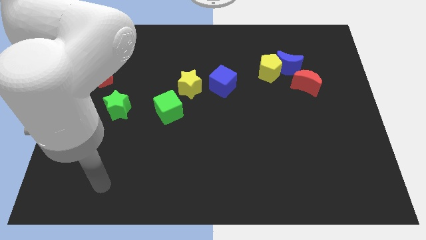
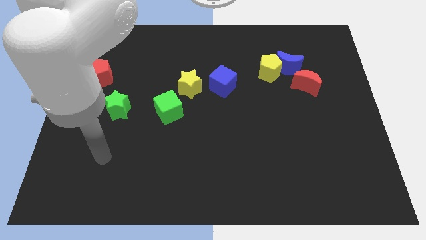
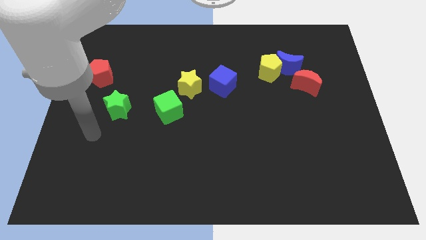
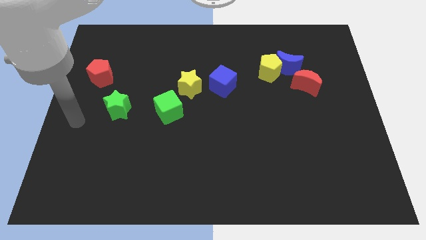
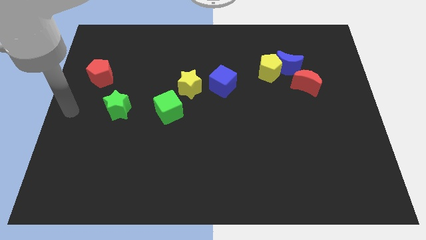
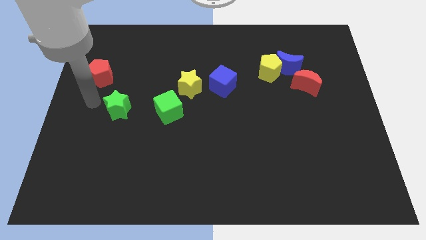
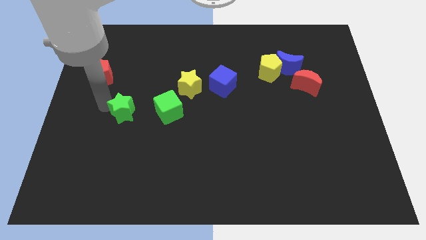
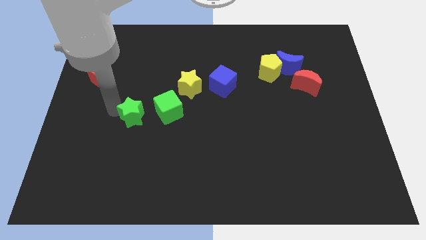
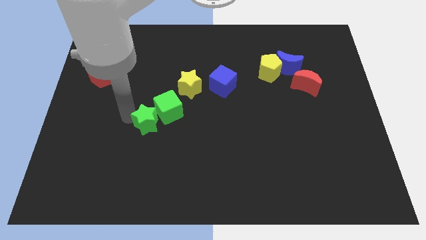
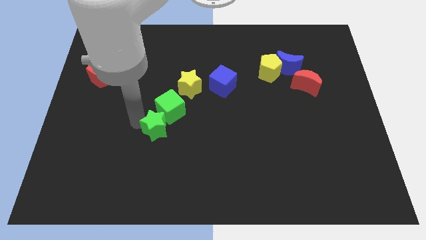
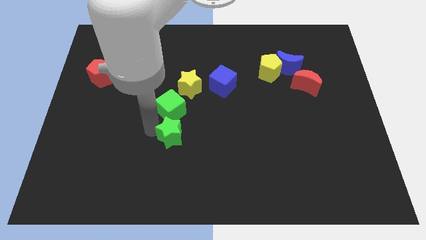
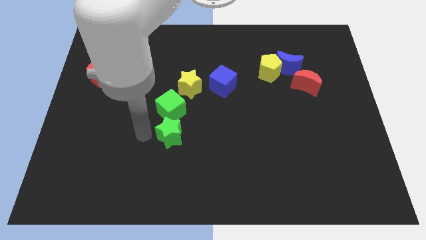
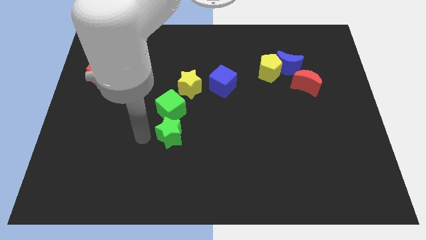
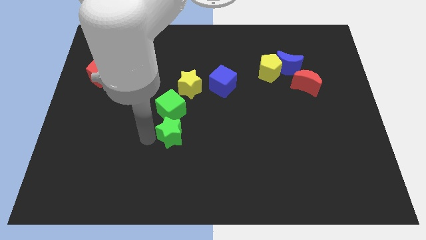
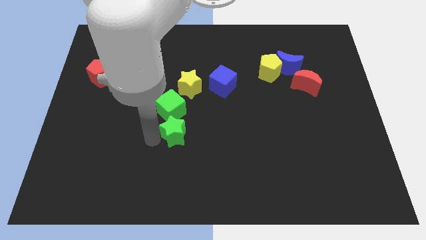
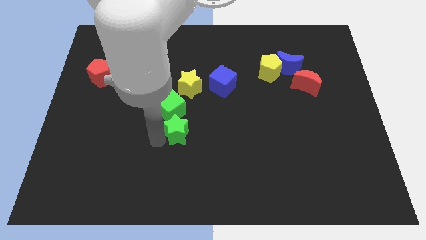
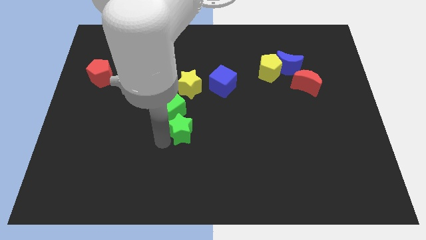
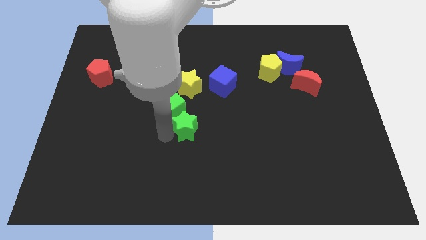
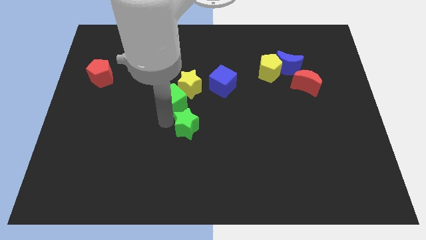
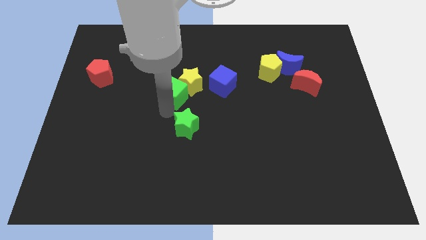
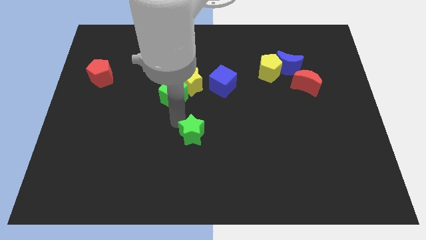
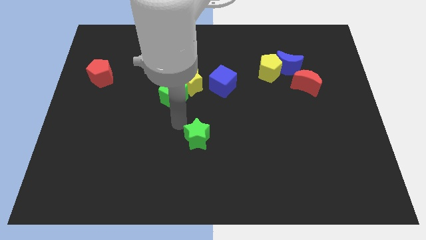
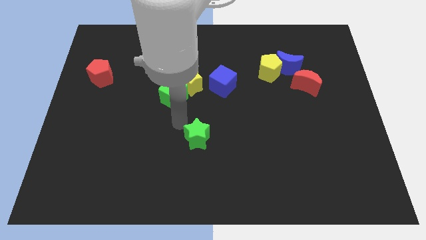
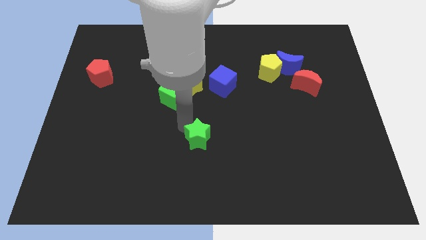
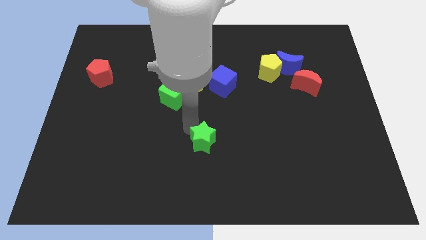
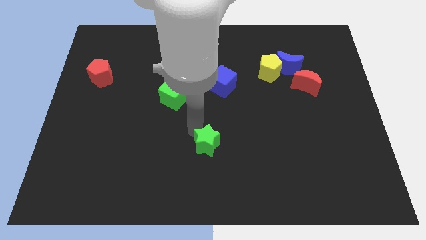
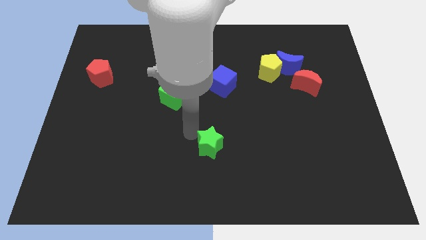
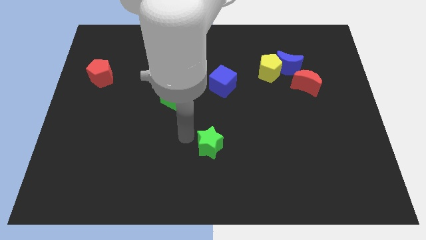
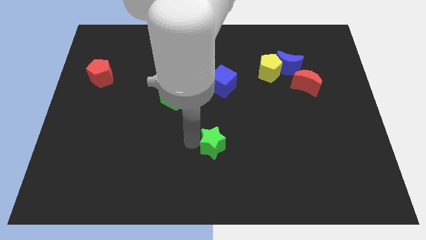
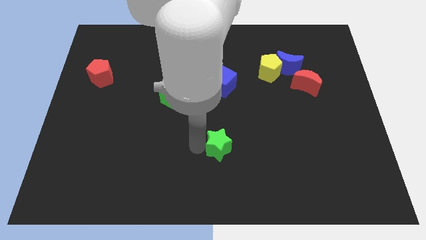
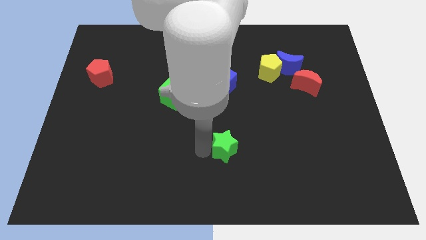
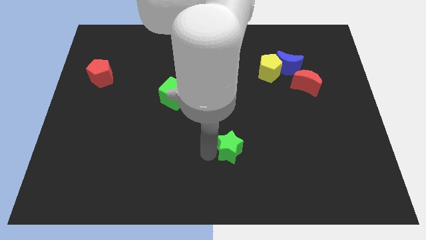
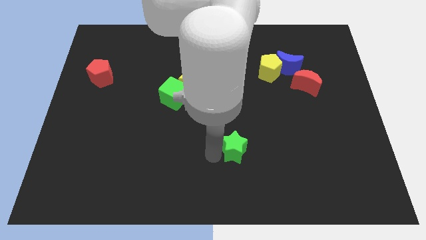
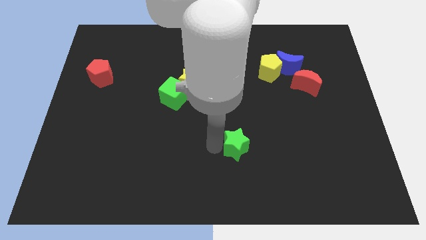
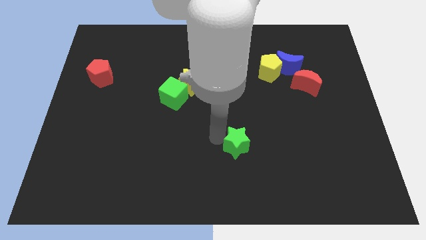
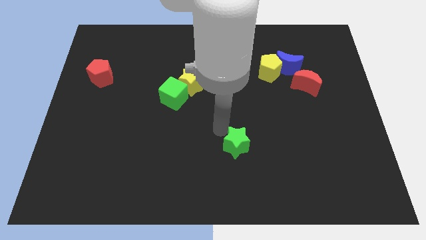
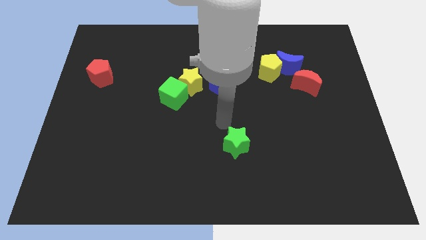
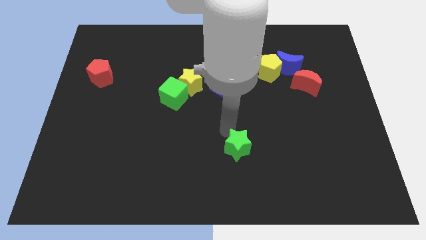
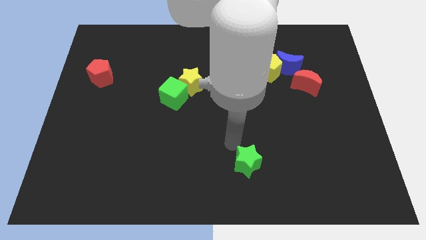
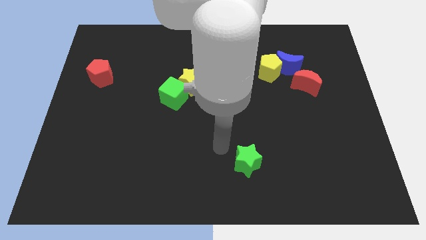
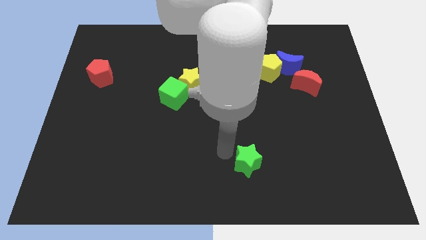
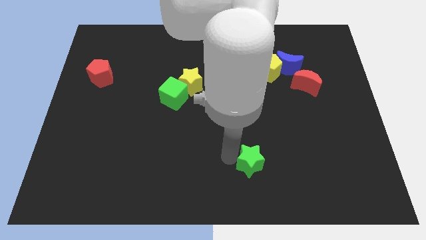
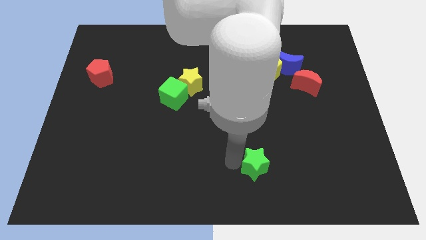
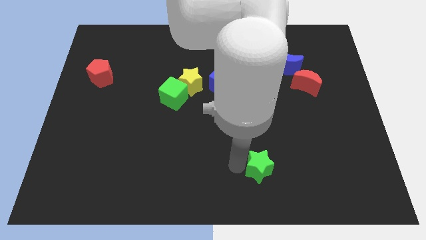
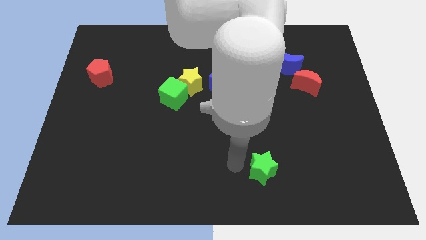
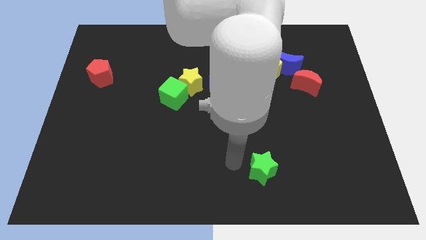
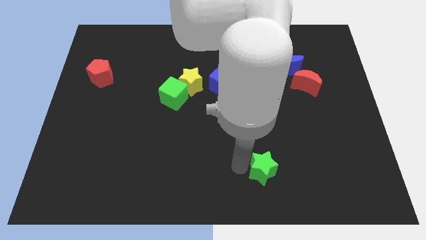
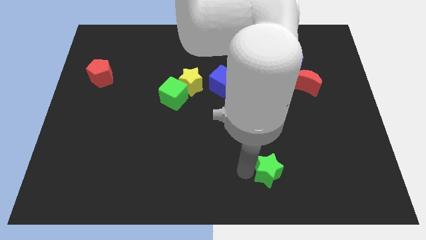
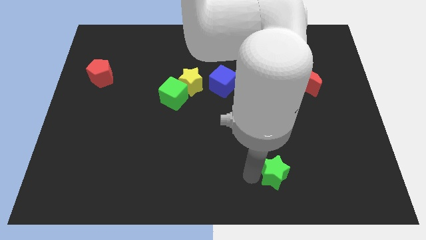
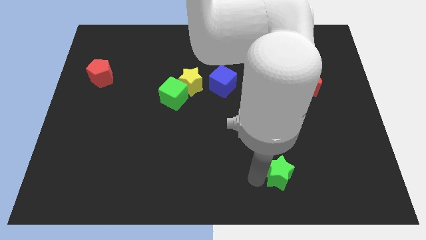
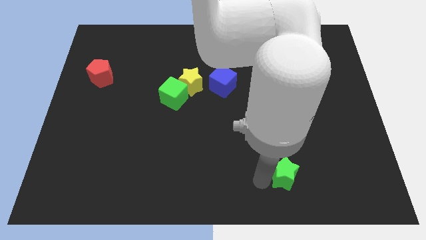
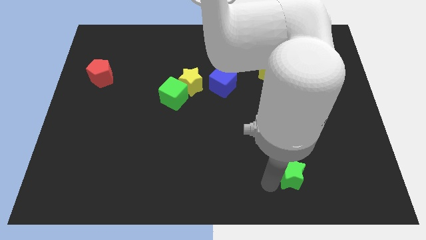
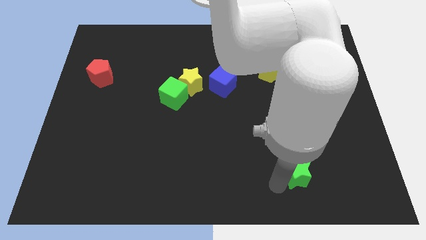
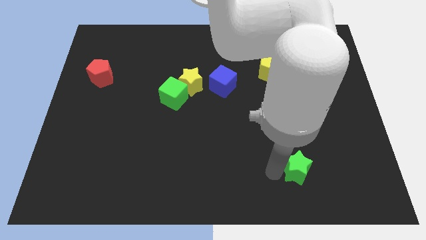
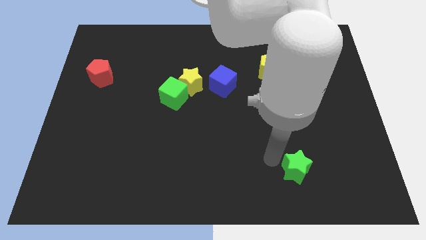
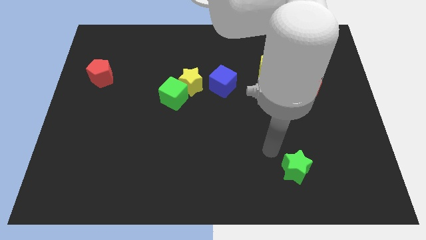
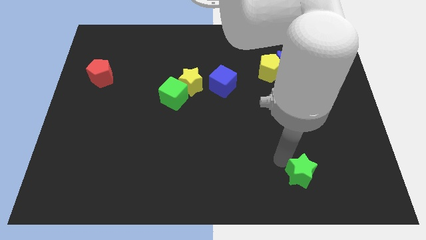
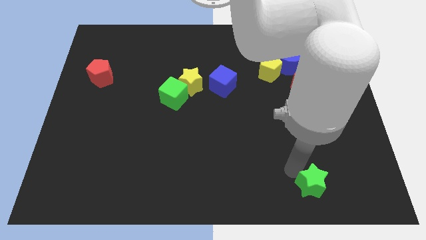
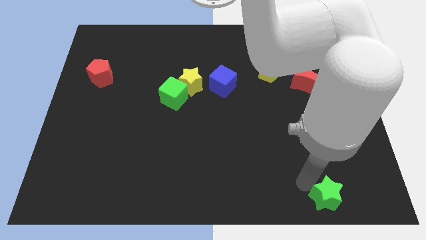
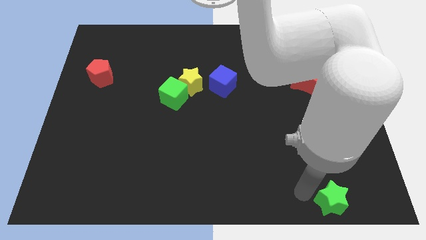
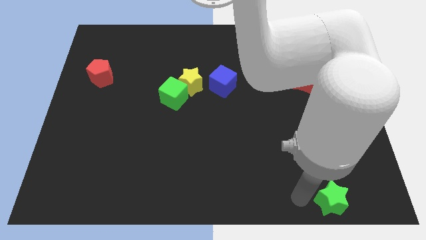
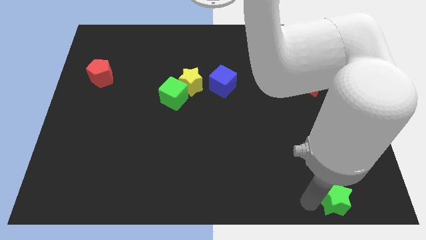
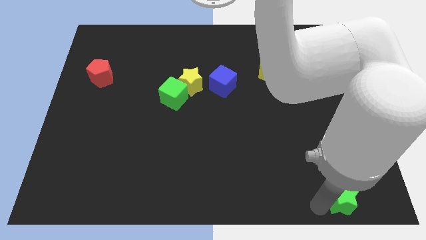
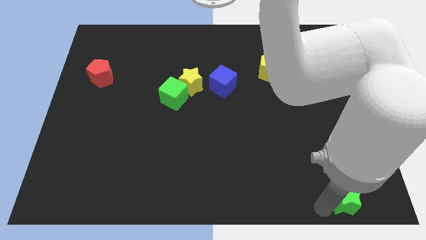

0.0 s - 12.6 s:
push the green star to the bottom right of the board
